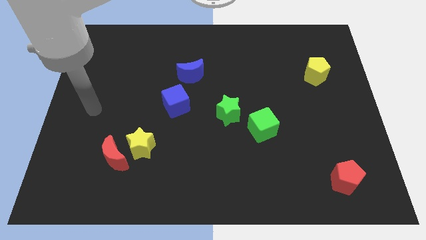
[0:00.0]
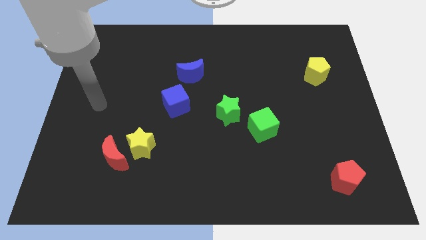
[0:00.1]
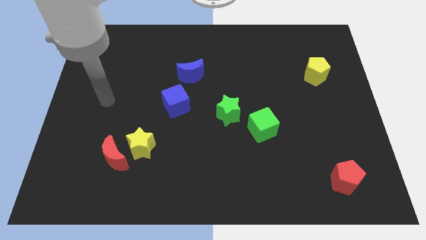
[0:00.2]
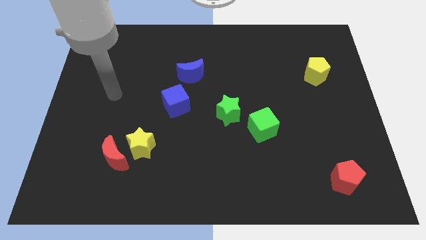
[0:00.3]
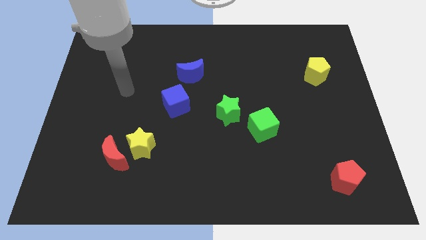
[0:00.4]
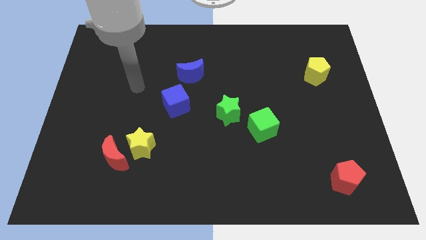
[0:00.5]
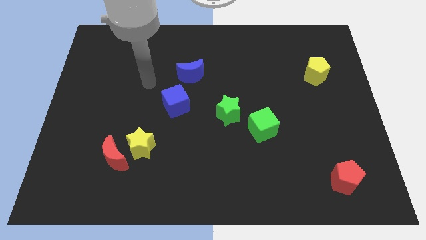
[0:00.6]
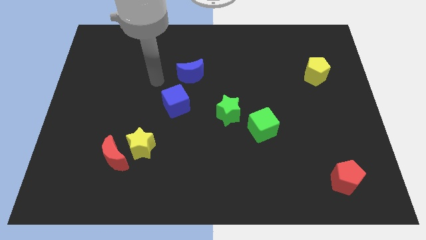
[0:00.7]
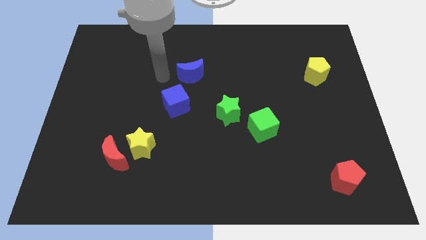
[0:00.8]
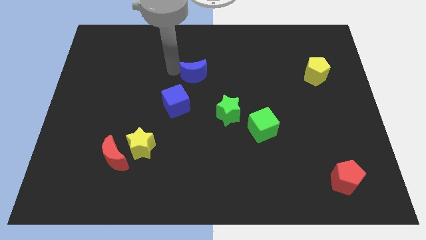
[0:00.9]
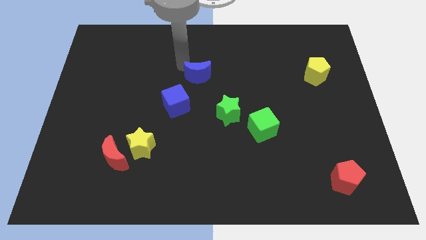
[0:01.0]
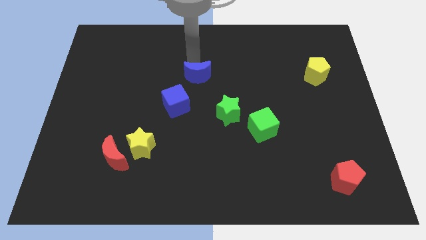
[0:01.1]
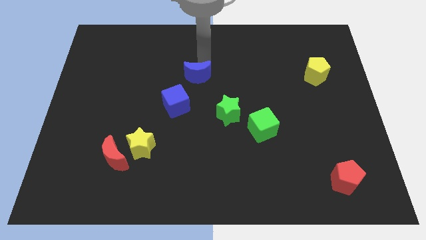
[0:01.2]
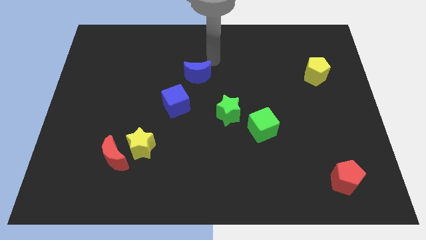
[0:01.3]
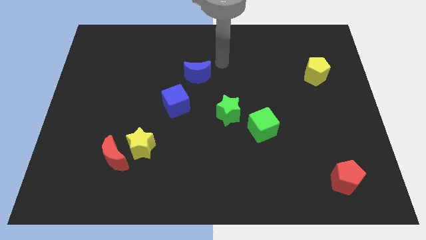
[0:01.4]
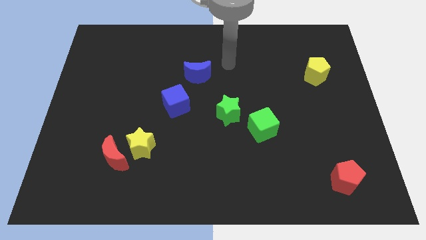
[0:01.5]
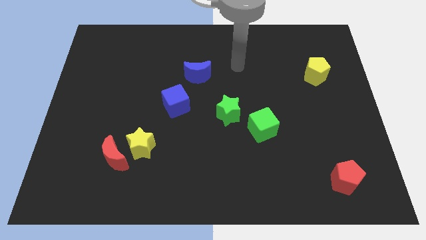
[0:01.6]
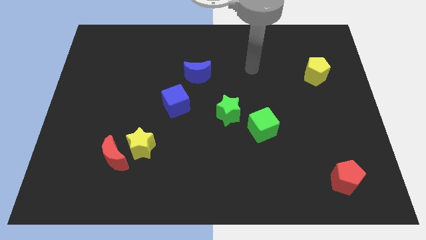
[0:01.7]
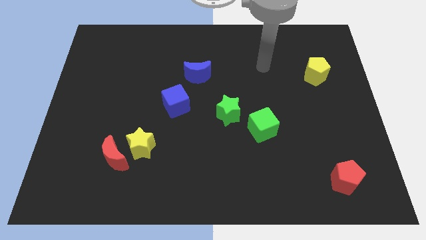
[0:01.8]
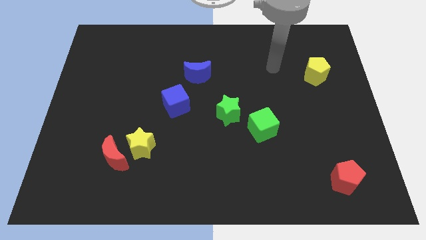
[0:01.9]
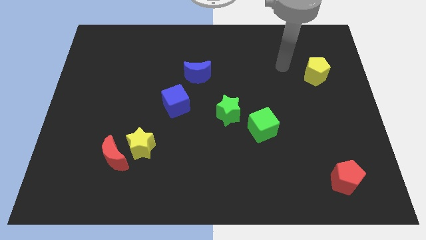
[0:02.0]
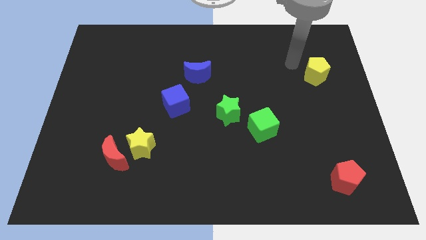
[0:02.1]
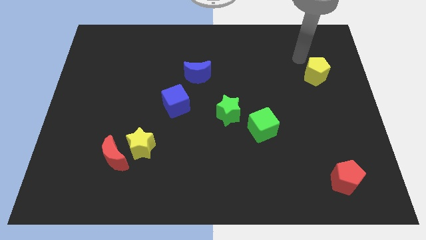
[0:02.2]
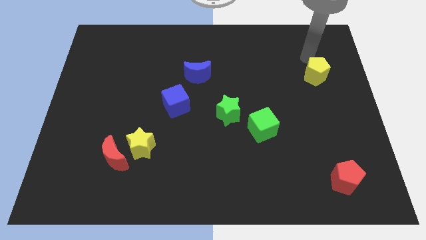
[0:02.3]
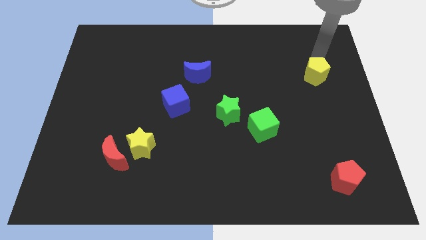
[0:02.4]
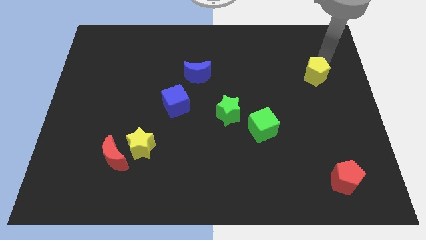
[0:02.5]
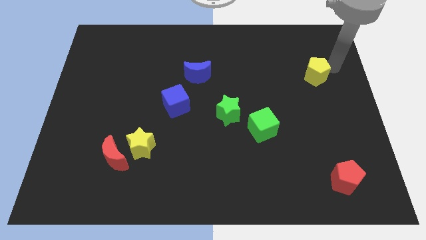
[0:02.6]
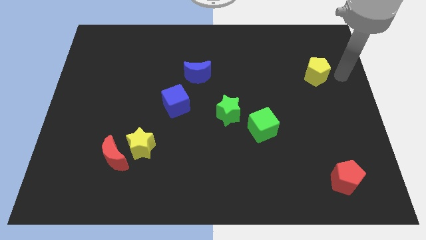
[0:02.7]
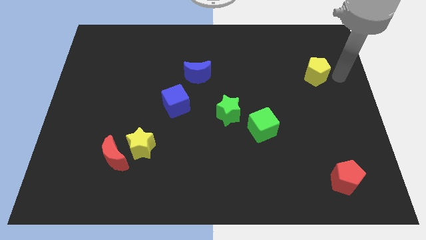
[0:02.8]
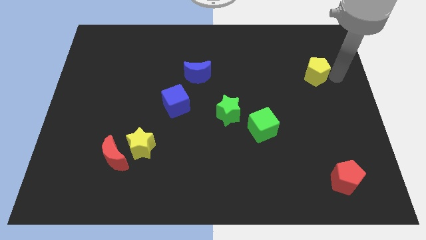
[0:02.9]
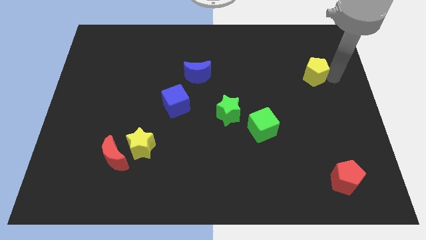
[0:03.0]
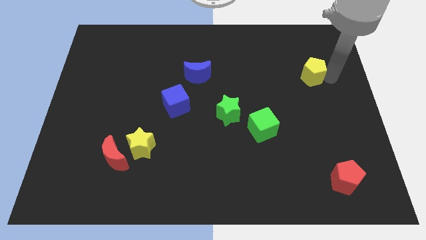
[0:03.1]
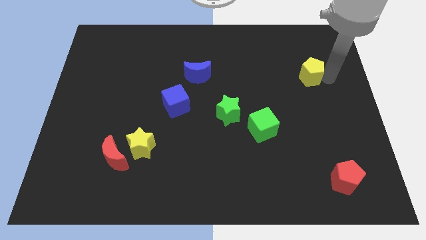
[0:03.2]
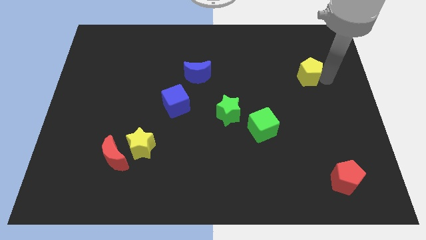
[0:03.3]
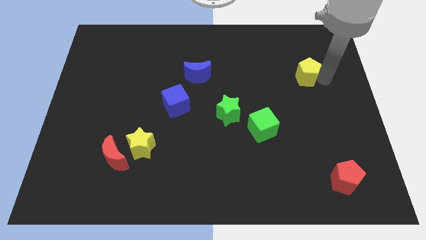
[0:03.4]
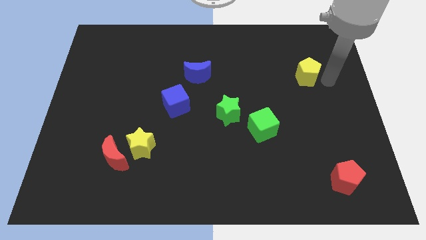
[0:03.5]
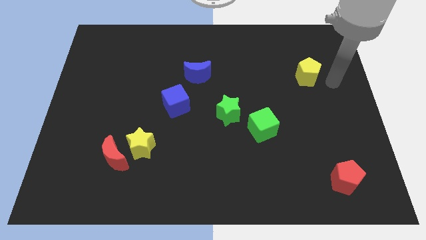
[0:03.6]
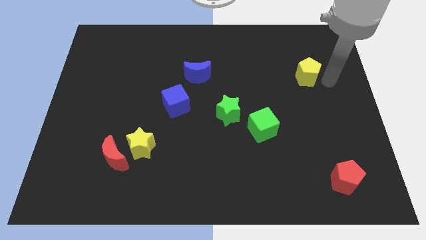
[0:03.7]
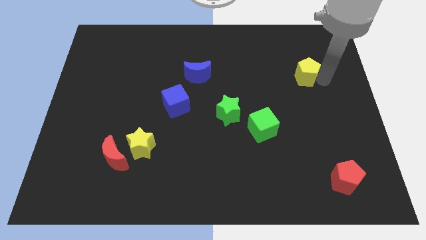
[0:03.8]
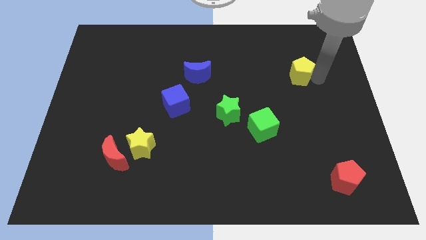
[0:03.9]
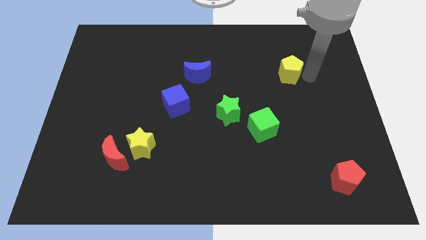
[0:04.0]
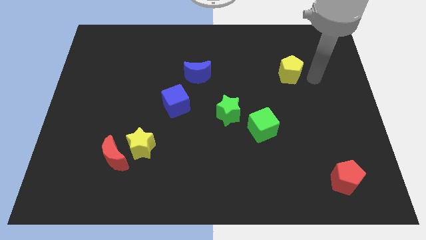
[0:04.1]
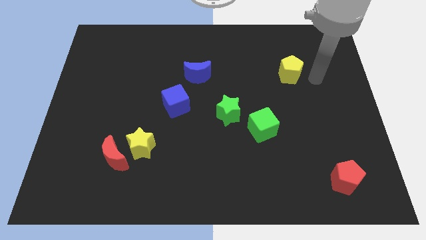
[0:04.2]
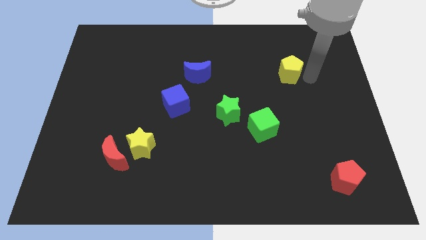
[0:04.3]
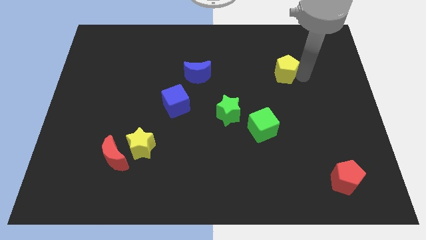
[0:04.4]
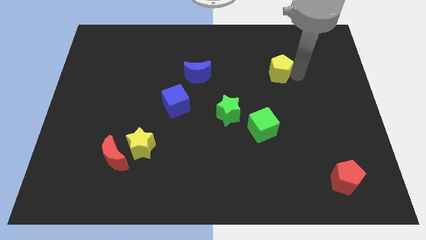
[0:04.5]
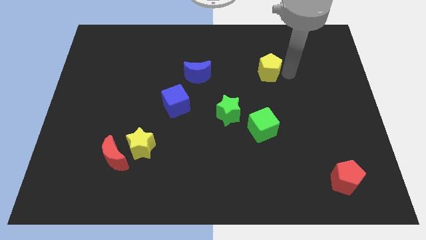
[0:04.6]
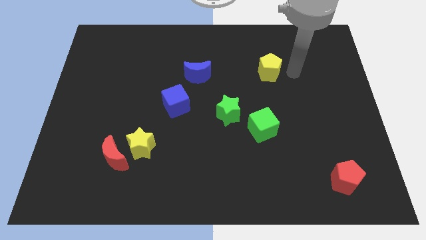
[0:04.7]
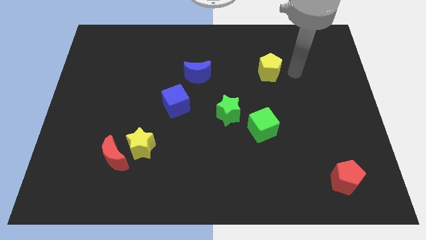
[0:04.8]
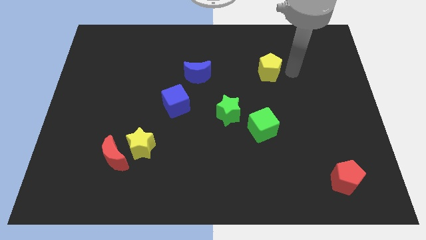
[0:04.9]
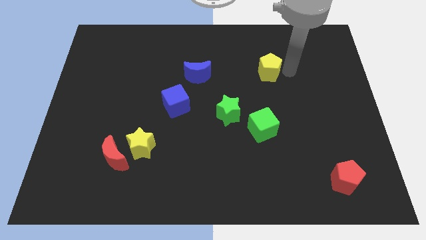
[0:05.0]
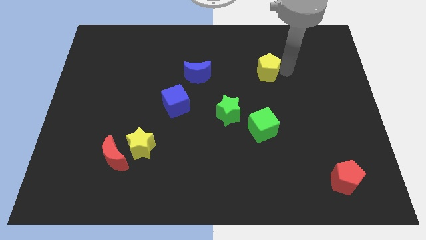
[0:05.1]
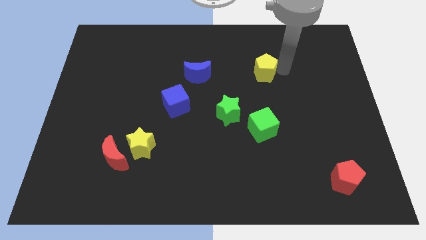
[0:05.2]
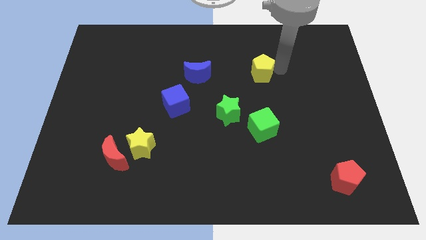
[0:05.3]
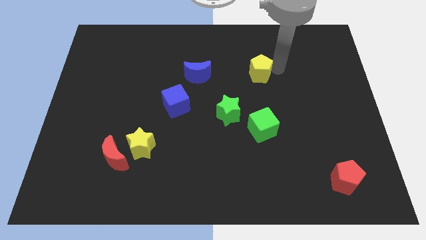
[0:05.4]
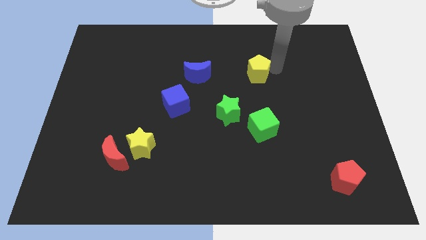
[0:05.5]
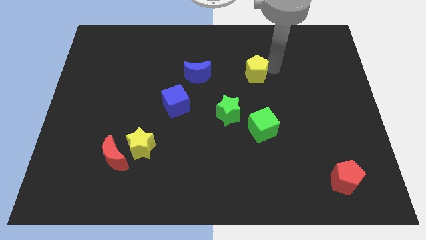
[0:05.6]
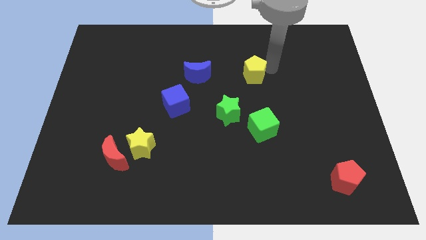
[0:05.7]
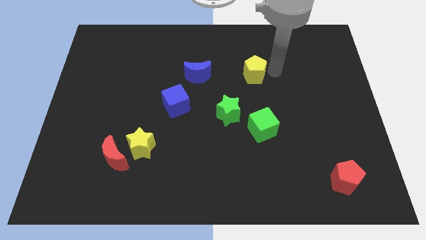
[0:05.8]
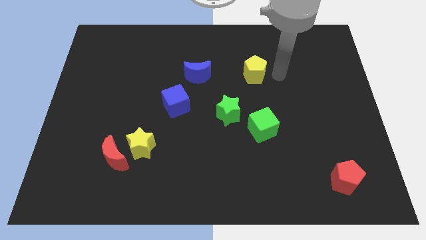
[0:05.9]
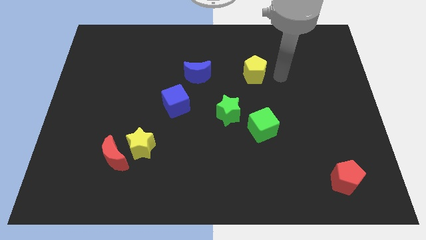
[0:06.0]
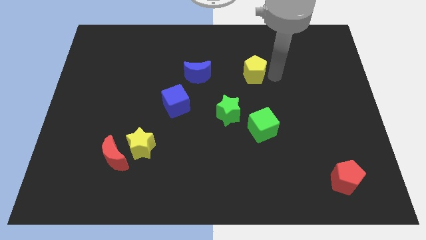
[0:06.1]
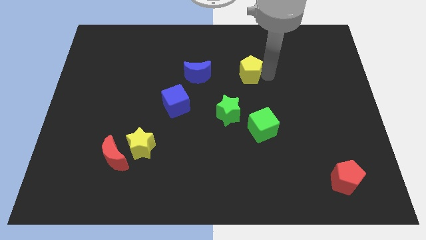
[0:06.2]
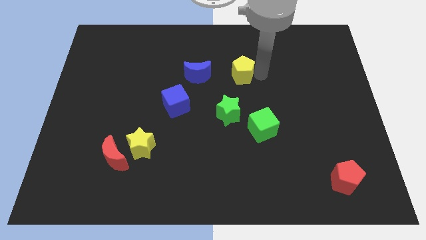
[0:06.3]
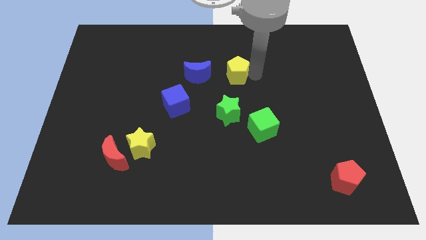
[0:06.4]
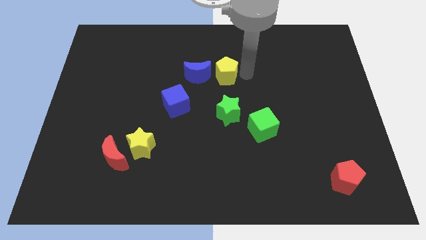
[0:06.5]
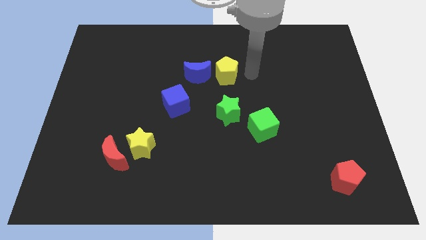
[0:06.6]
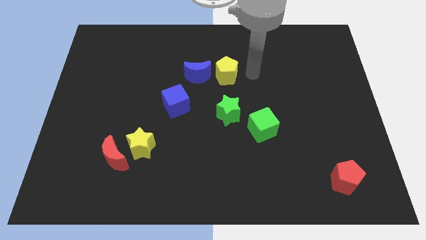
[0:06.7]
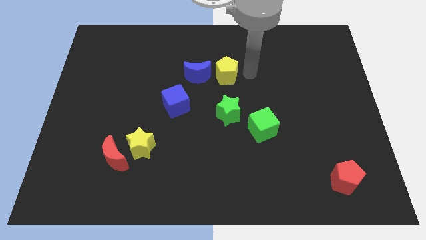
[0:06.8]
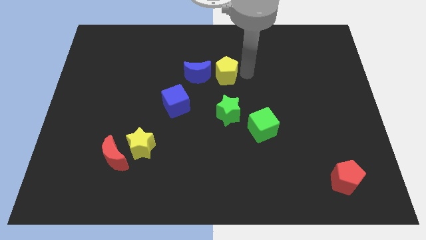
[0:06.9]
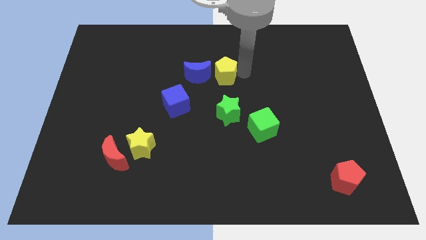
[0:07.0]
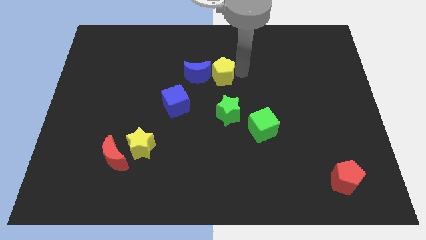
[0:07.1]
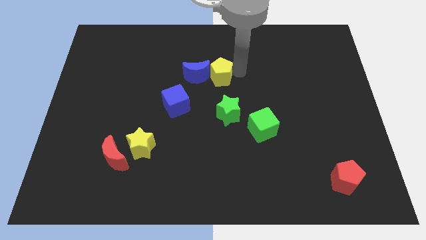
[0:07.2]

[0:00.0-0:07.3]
put the yellow pentagon to the blue moon

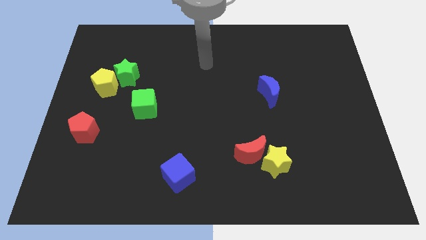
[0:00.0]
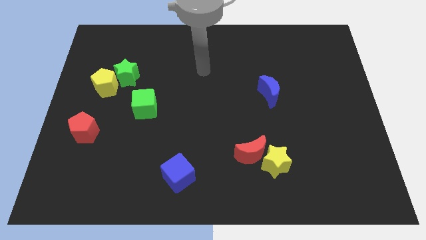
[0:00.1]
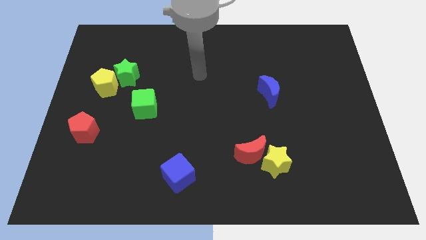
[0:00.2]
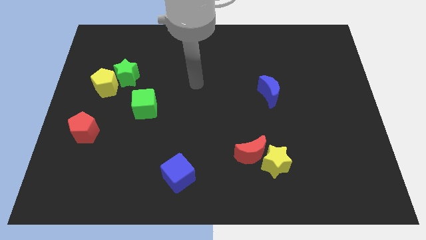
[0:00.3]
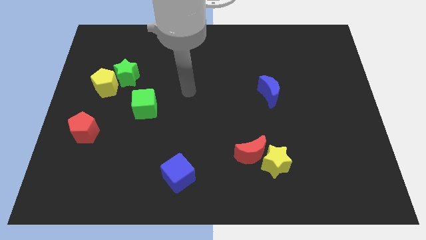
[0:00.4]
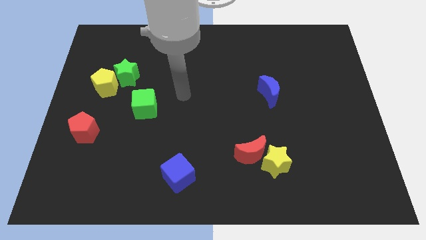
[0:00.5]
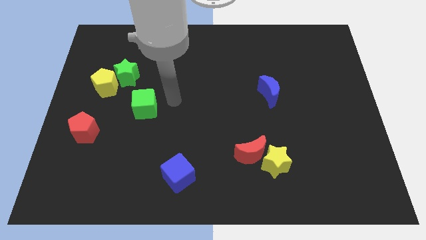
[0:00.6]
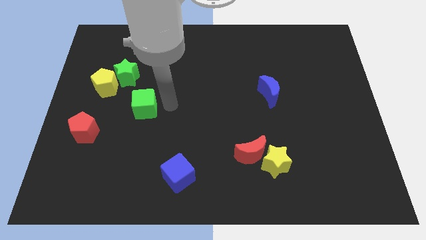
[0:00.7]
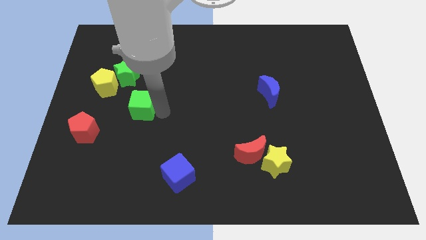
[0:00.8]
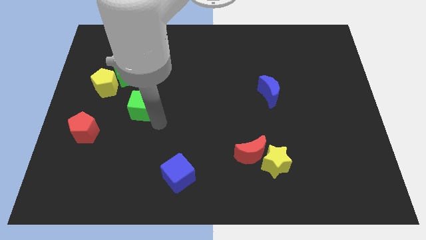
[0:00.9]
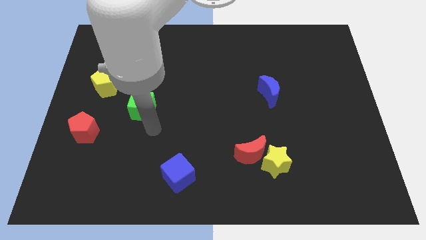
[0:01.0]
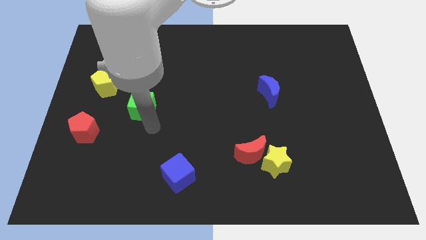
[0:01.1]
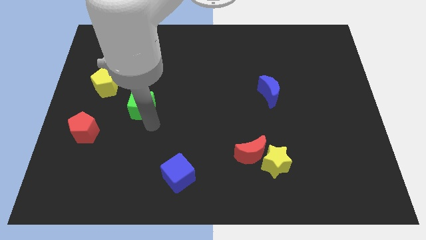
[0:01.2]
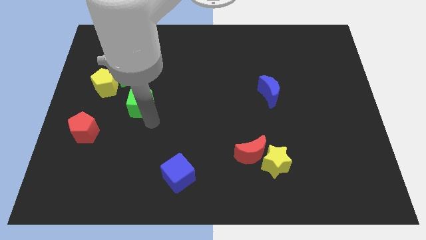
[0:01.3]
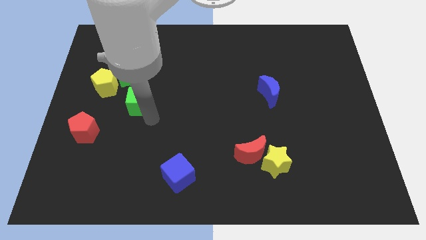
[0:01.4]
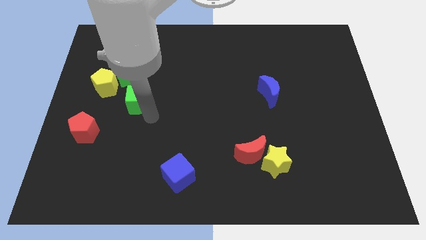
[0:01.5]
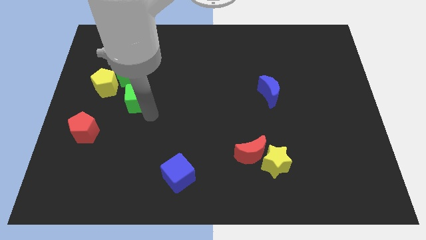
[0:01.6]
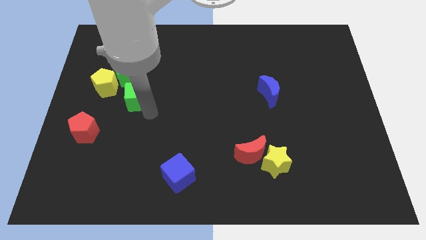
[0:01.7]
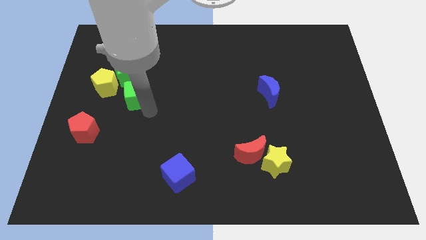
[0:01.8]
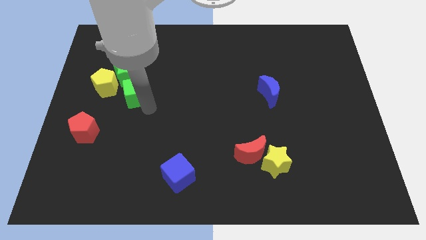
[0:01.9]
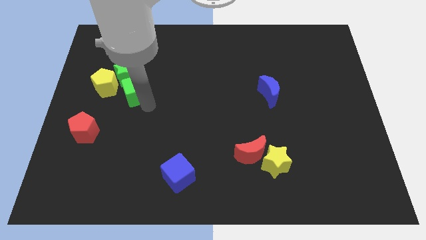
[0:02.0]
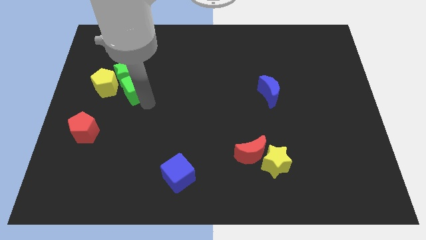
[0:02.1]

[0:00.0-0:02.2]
slide the green cube next to the green star
